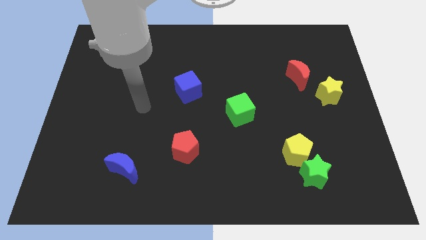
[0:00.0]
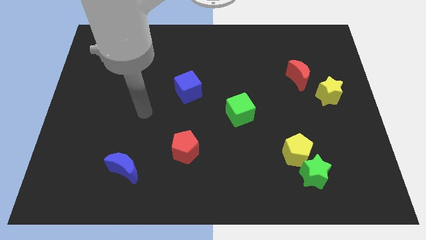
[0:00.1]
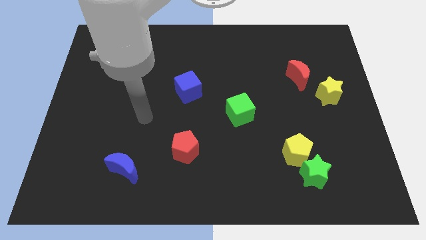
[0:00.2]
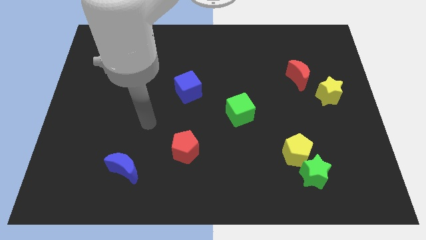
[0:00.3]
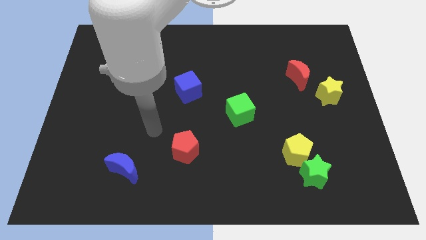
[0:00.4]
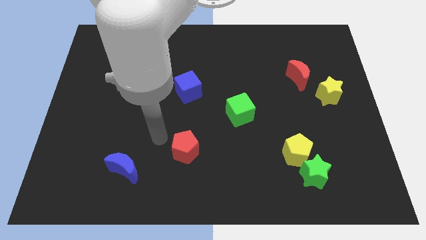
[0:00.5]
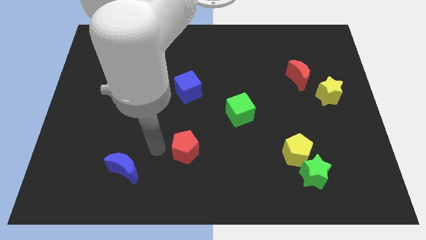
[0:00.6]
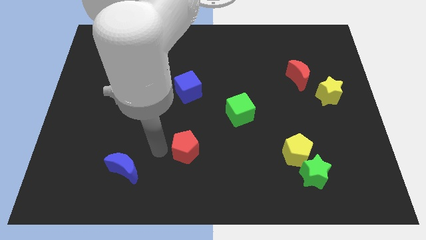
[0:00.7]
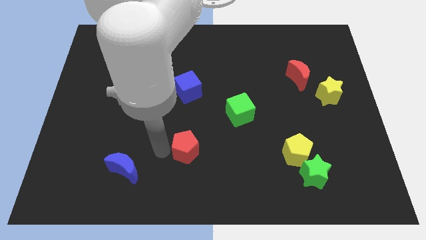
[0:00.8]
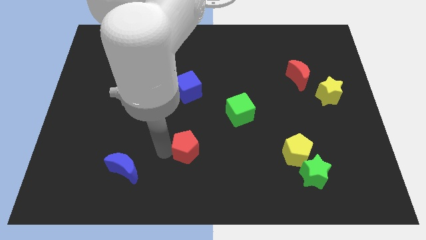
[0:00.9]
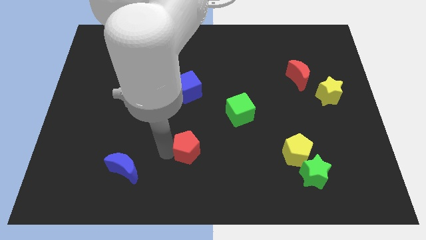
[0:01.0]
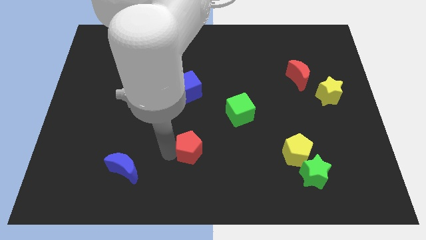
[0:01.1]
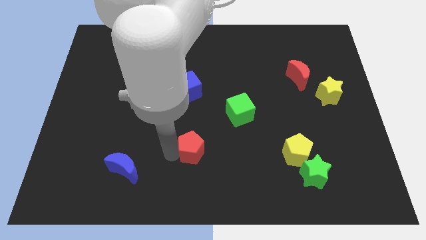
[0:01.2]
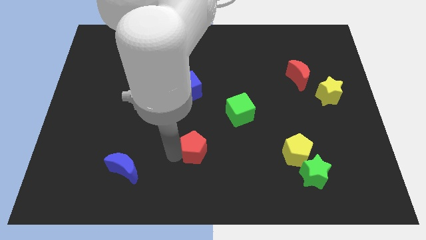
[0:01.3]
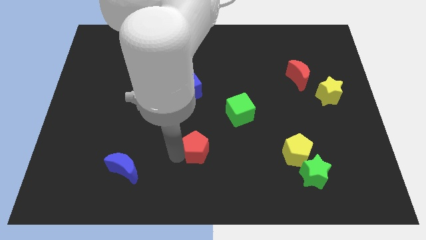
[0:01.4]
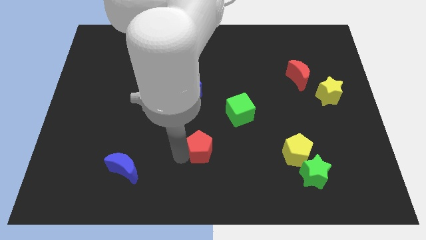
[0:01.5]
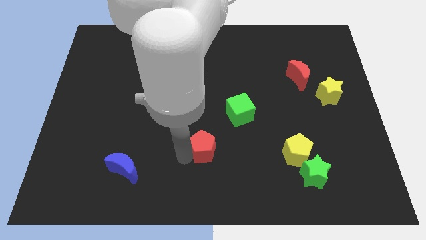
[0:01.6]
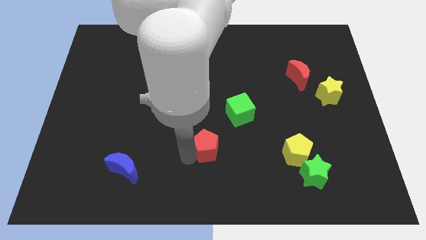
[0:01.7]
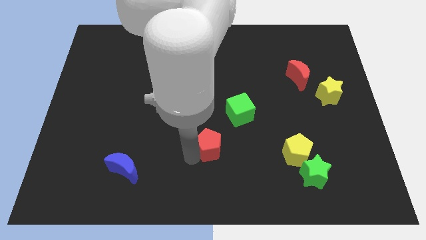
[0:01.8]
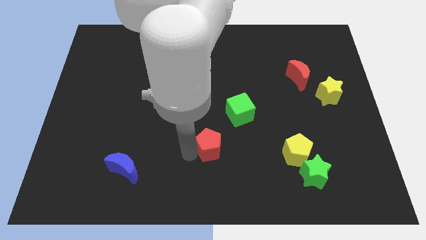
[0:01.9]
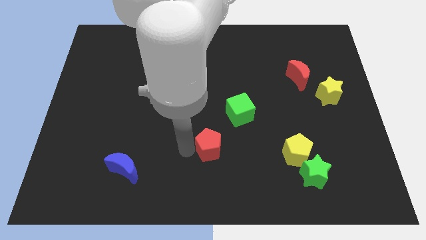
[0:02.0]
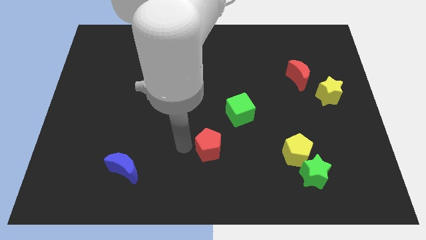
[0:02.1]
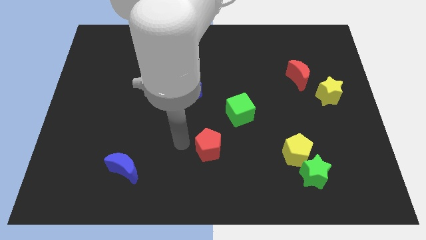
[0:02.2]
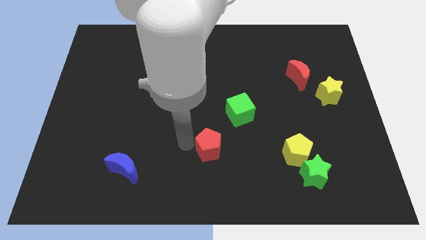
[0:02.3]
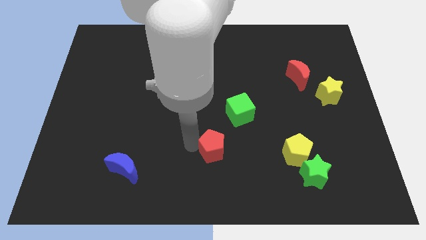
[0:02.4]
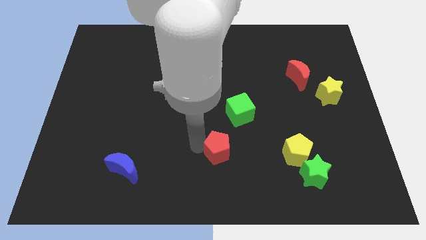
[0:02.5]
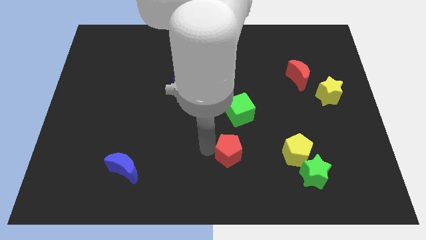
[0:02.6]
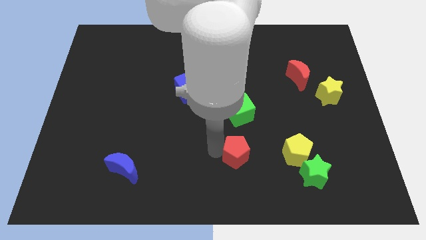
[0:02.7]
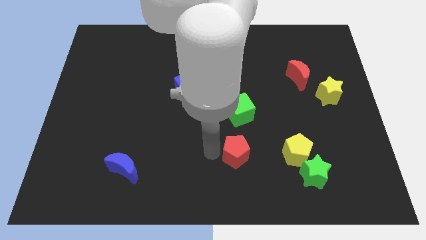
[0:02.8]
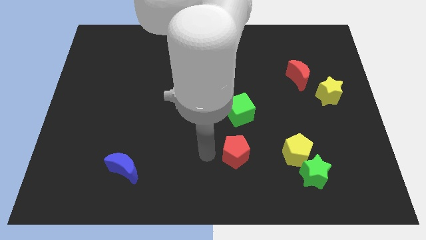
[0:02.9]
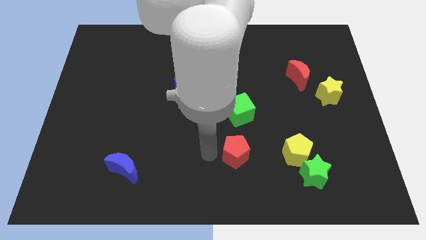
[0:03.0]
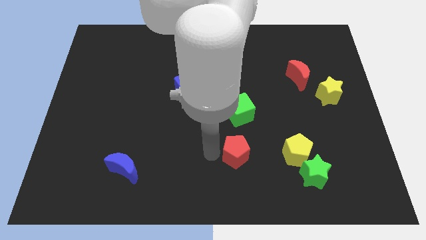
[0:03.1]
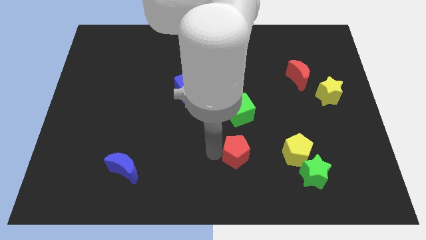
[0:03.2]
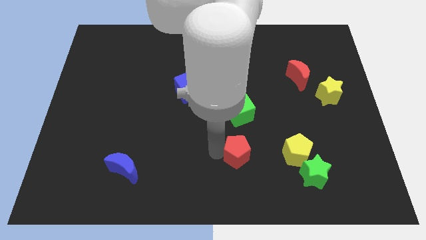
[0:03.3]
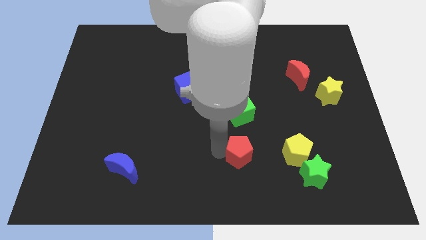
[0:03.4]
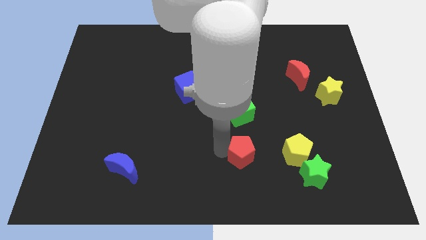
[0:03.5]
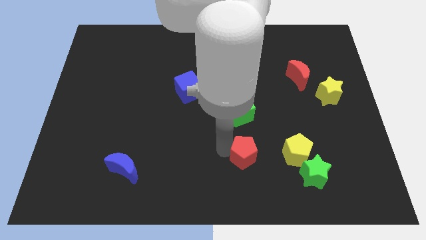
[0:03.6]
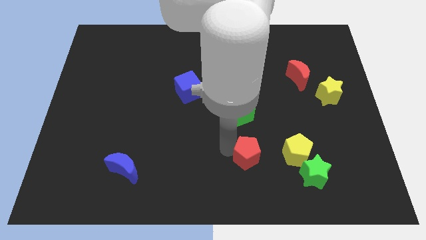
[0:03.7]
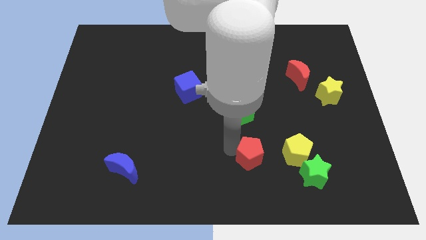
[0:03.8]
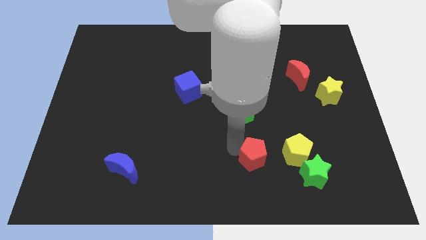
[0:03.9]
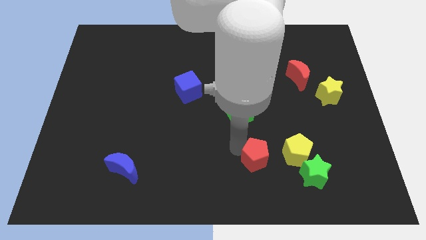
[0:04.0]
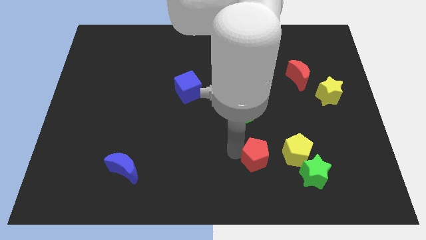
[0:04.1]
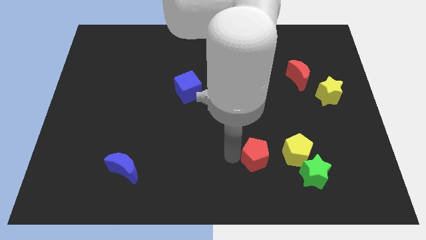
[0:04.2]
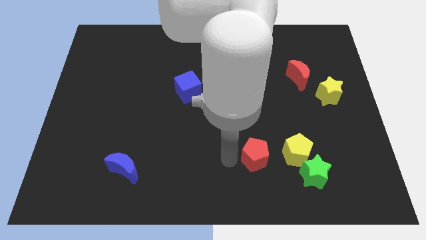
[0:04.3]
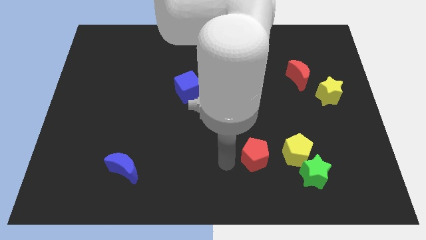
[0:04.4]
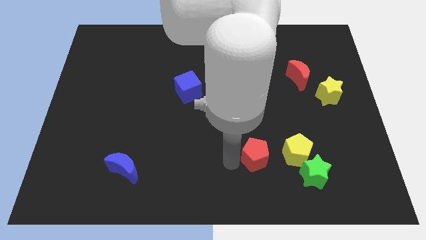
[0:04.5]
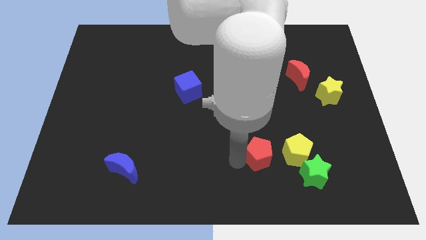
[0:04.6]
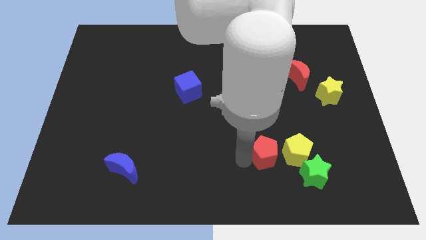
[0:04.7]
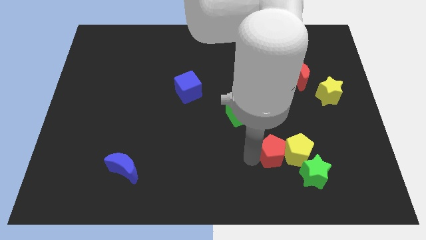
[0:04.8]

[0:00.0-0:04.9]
put the red pentagon next to the yellow pentagon

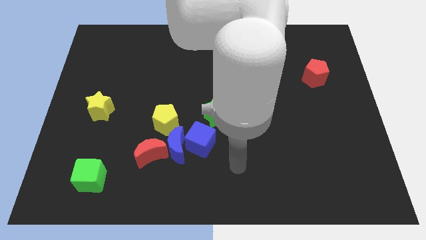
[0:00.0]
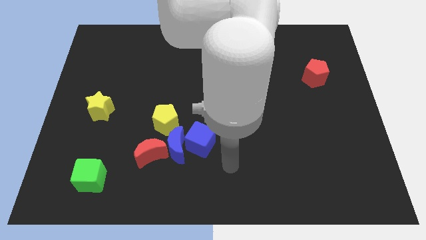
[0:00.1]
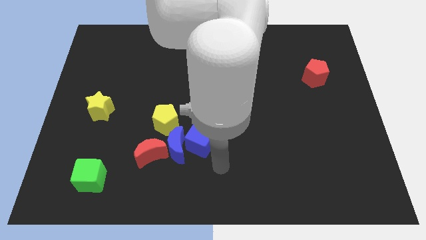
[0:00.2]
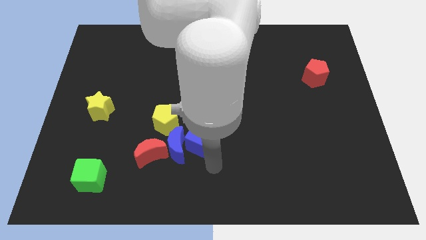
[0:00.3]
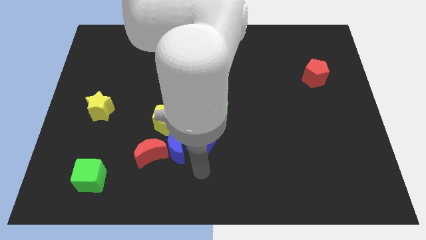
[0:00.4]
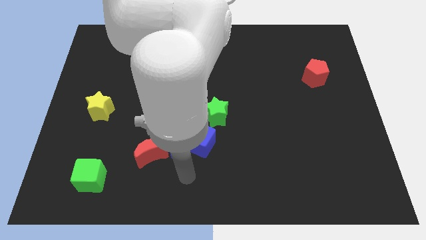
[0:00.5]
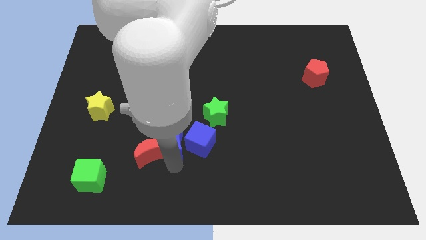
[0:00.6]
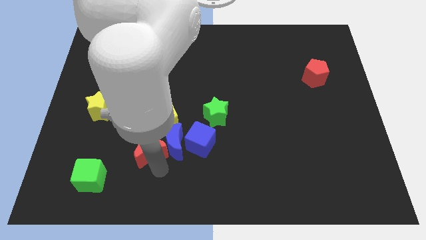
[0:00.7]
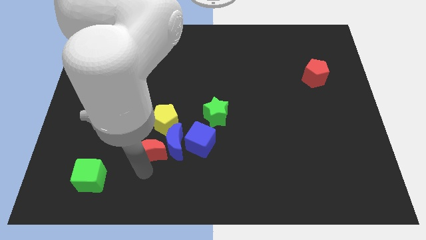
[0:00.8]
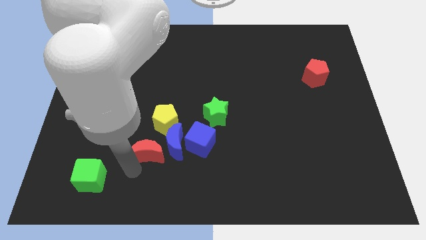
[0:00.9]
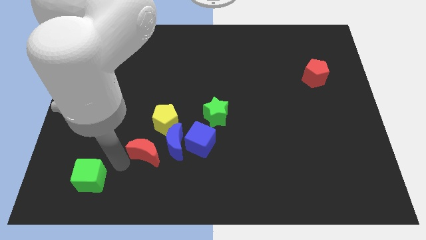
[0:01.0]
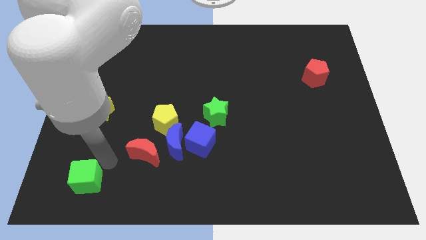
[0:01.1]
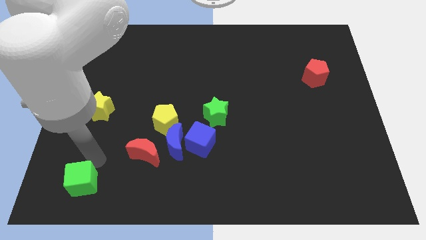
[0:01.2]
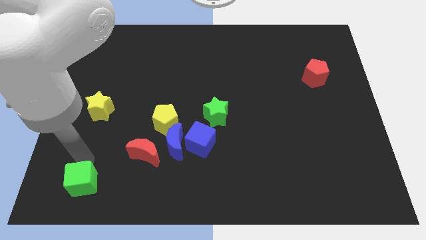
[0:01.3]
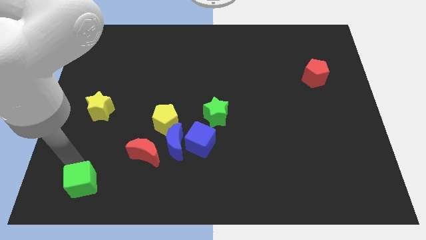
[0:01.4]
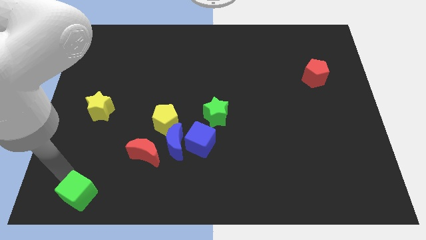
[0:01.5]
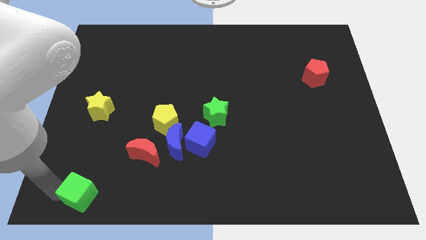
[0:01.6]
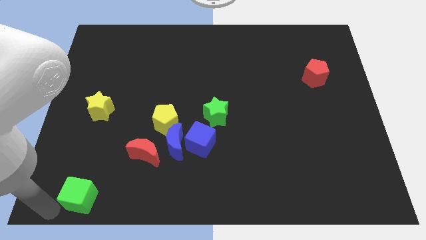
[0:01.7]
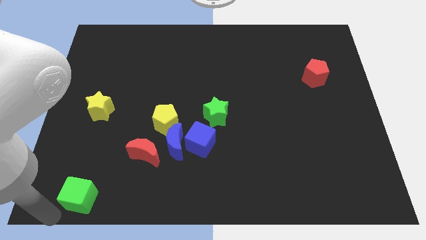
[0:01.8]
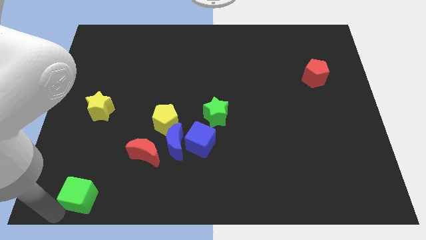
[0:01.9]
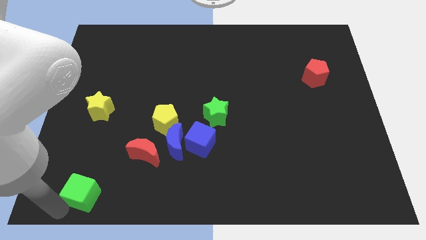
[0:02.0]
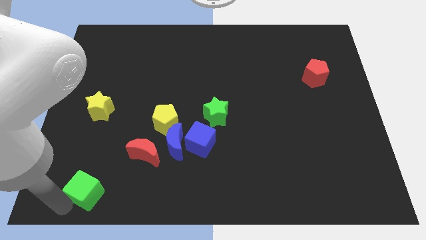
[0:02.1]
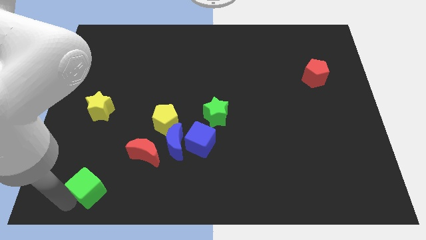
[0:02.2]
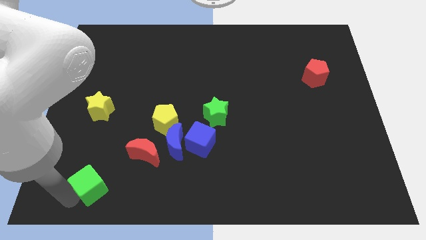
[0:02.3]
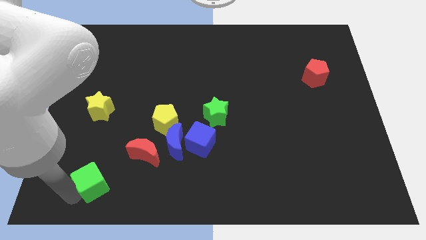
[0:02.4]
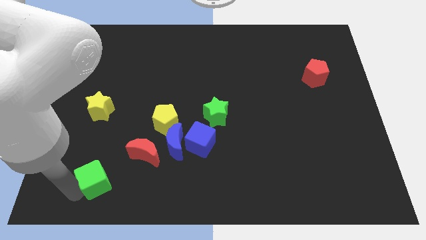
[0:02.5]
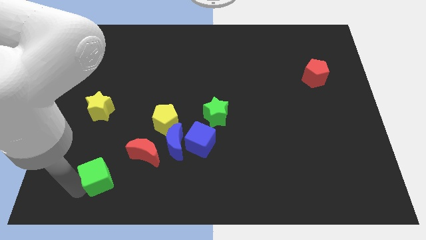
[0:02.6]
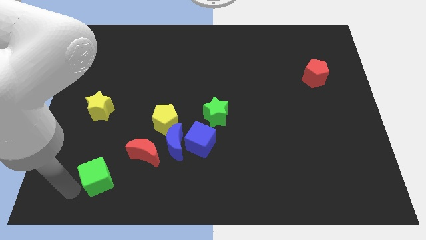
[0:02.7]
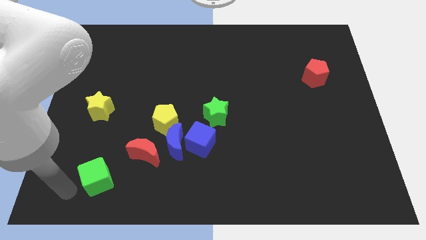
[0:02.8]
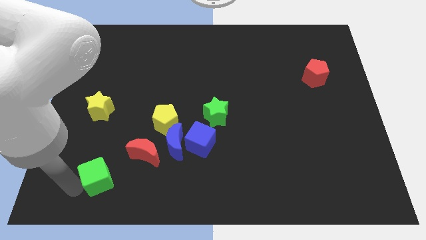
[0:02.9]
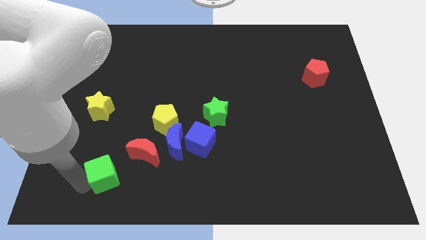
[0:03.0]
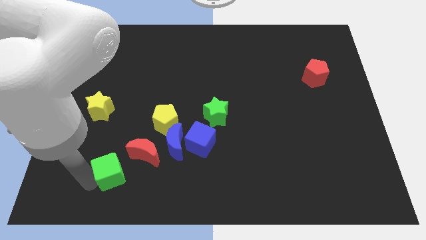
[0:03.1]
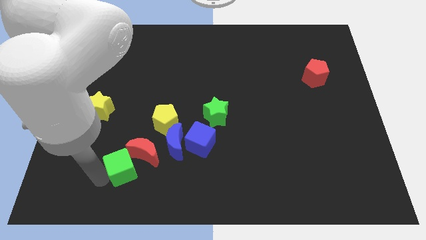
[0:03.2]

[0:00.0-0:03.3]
move the green cube next to the red moon
